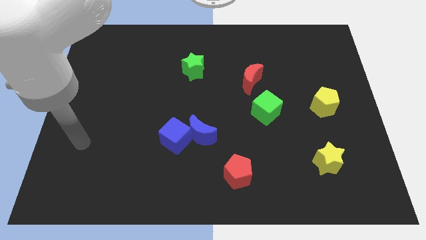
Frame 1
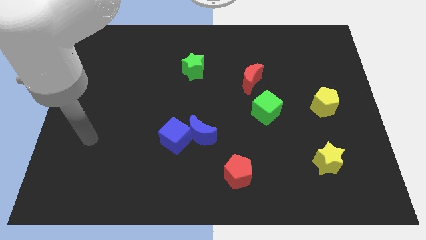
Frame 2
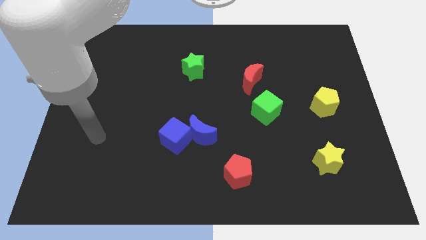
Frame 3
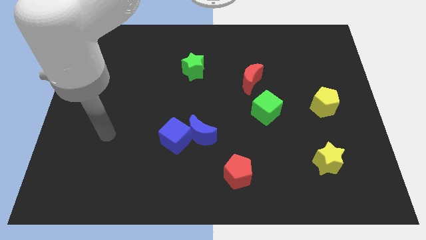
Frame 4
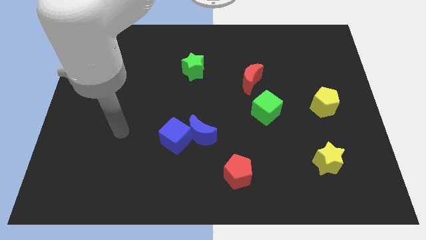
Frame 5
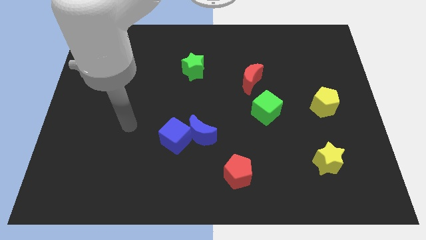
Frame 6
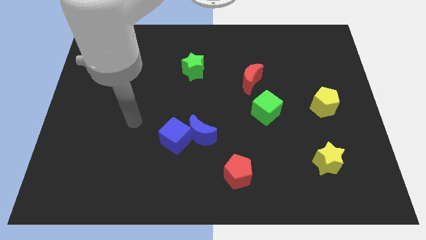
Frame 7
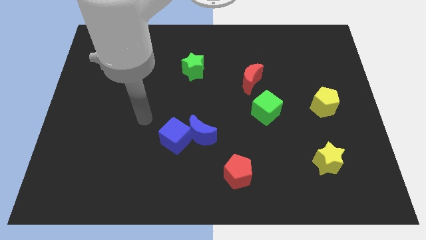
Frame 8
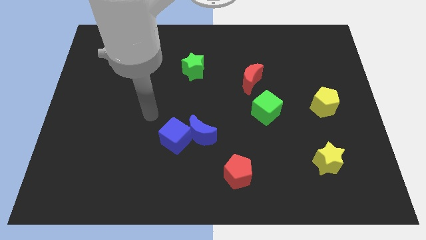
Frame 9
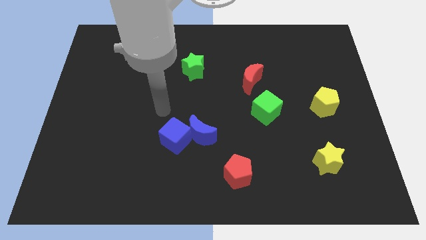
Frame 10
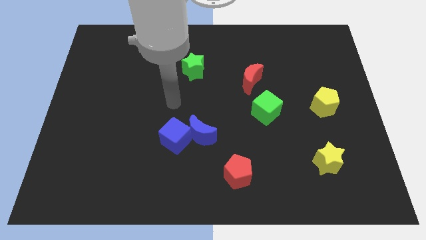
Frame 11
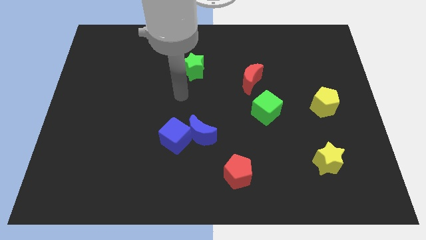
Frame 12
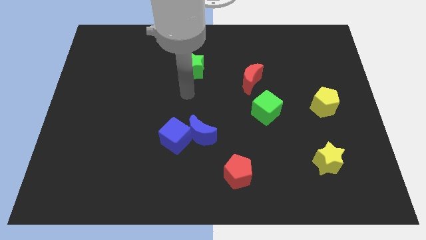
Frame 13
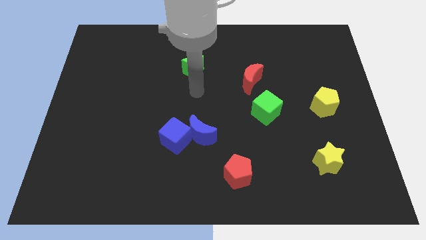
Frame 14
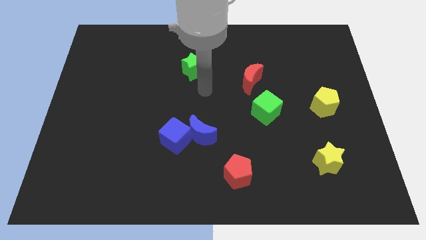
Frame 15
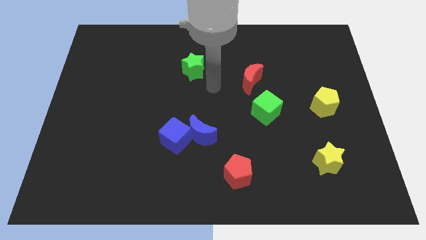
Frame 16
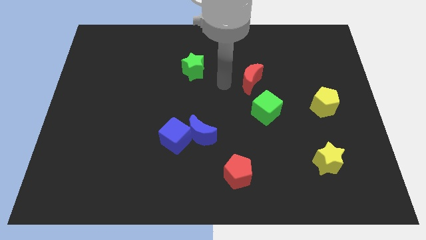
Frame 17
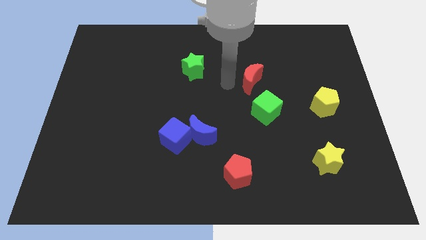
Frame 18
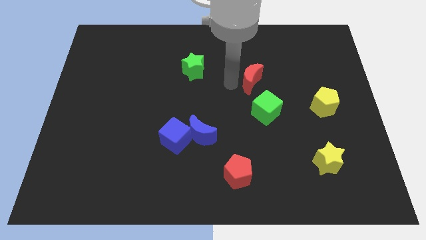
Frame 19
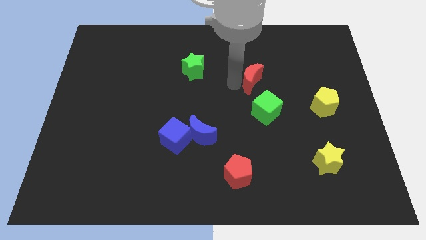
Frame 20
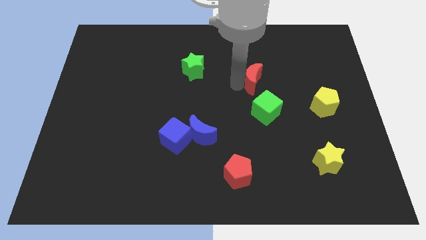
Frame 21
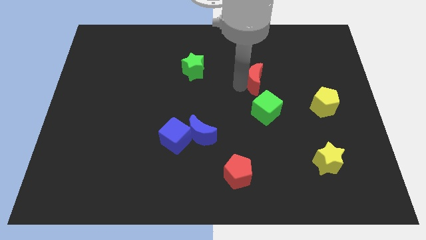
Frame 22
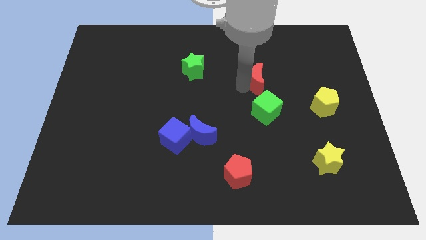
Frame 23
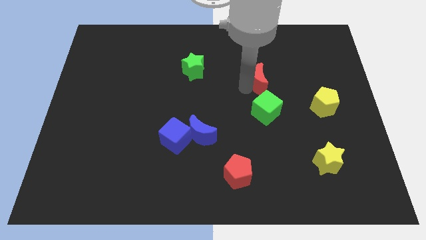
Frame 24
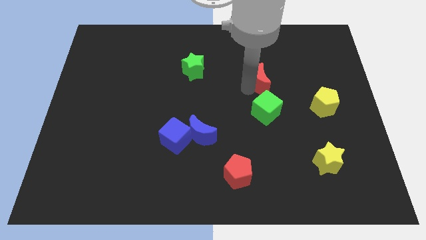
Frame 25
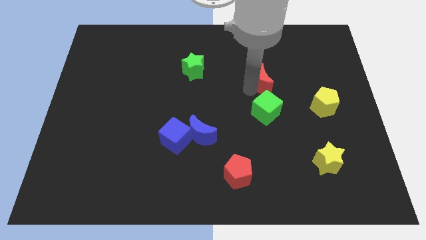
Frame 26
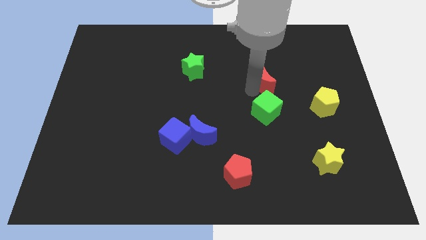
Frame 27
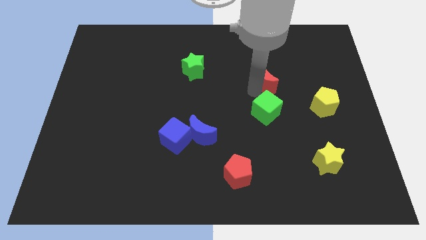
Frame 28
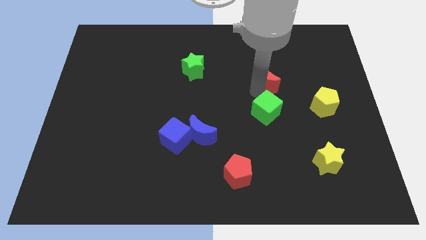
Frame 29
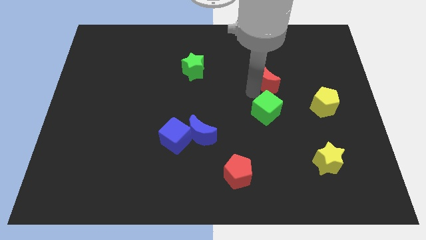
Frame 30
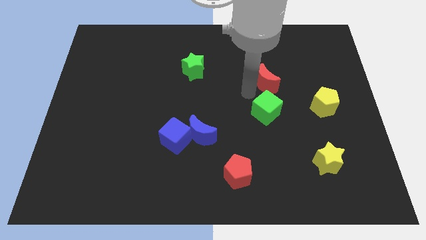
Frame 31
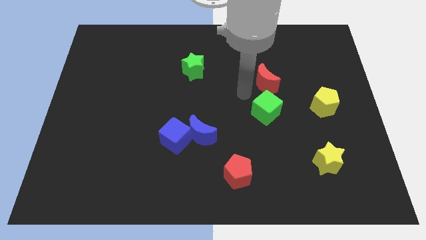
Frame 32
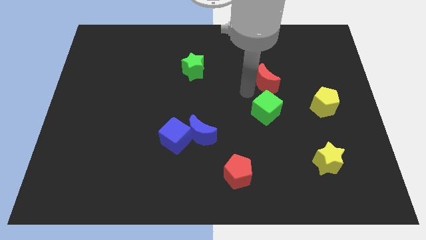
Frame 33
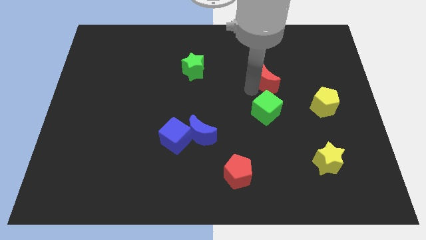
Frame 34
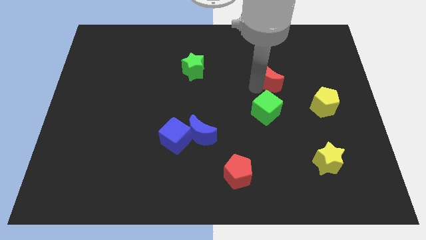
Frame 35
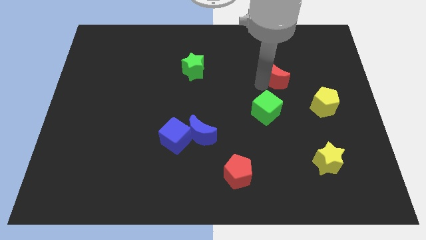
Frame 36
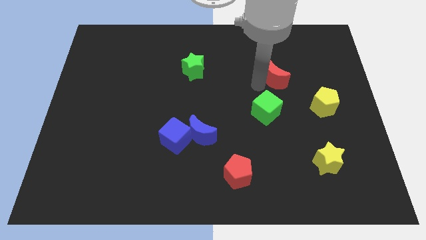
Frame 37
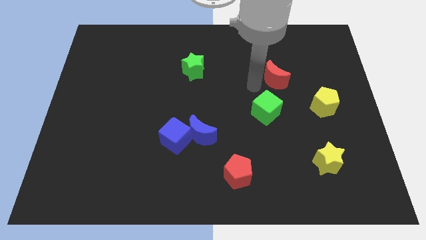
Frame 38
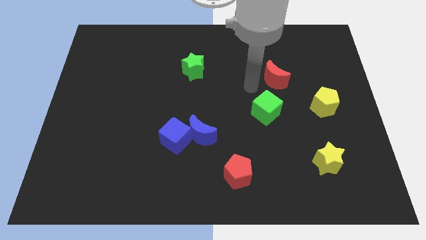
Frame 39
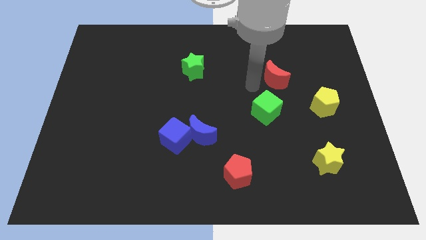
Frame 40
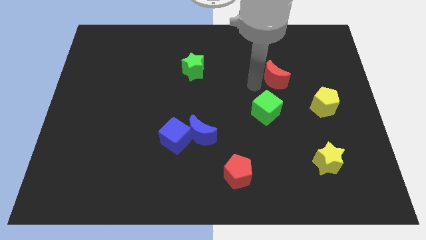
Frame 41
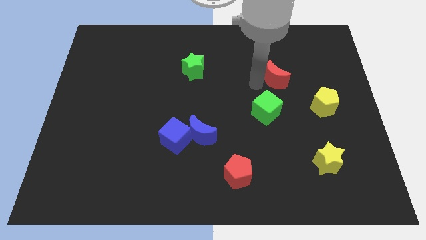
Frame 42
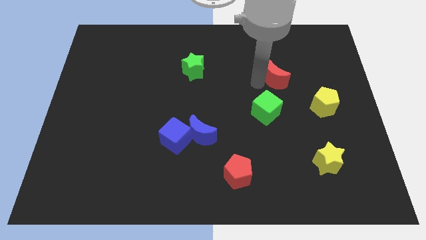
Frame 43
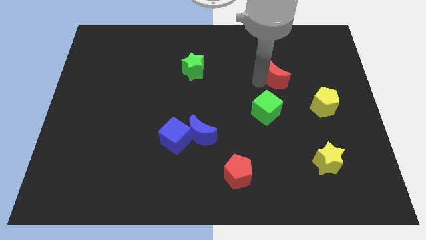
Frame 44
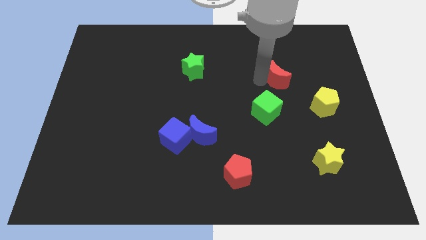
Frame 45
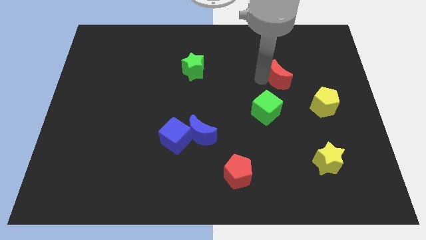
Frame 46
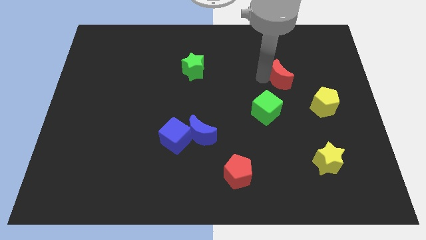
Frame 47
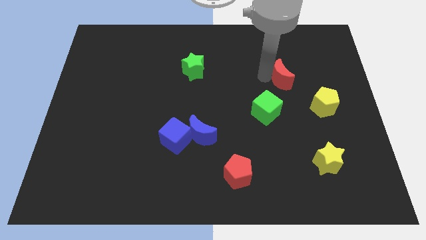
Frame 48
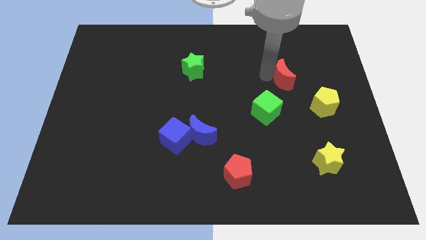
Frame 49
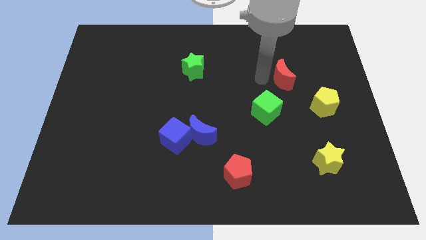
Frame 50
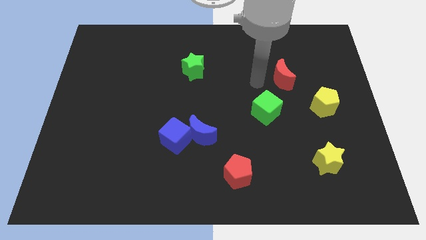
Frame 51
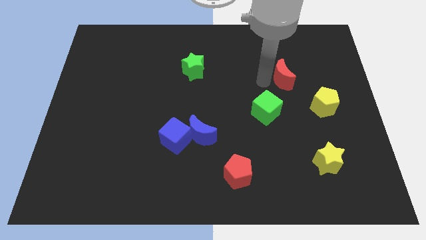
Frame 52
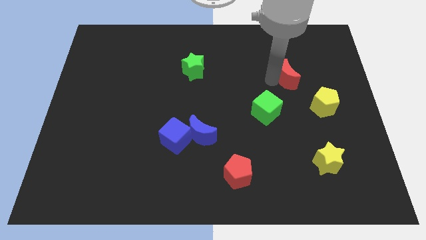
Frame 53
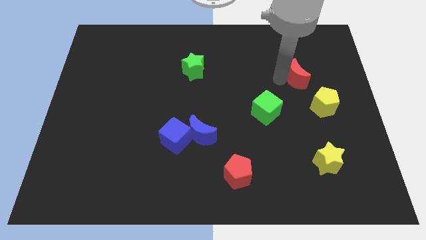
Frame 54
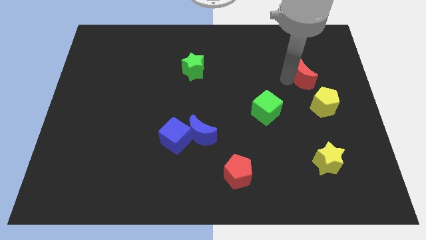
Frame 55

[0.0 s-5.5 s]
slide the red moon to the top side of the yellow pentagon

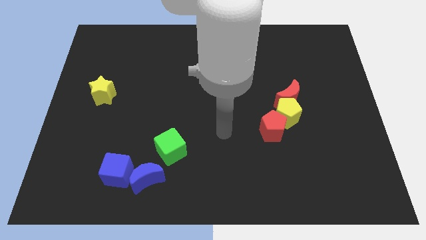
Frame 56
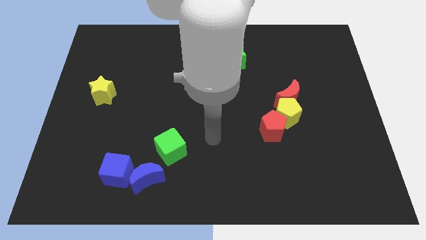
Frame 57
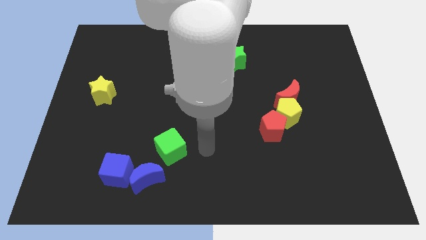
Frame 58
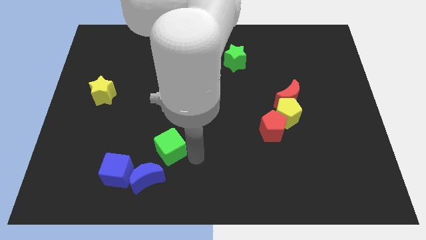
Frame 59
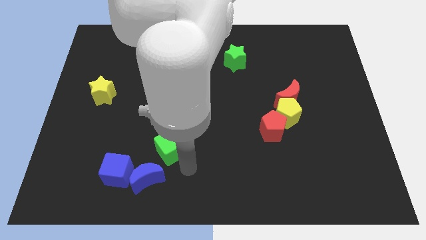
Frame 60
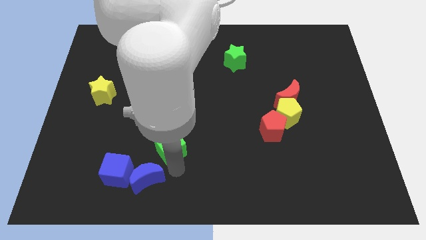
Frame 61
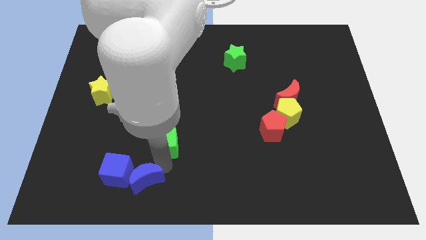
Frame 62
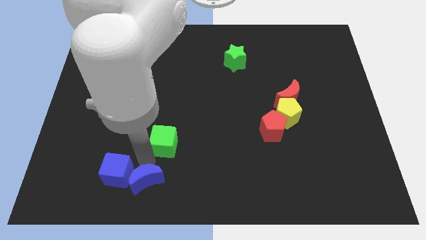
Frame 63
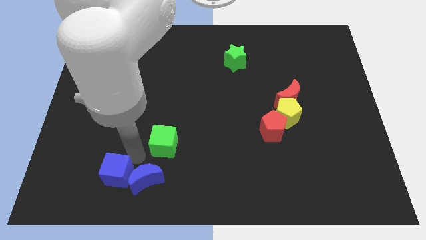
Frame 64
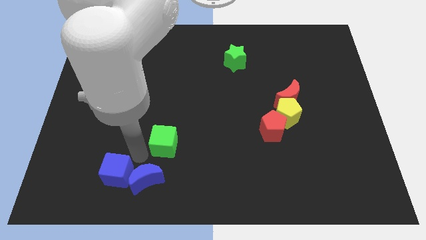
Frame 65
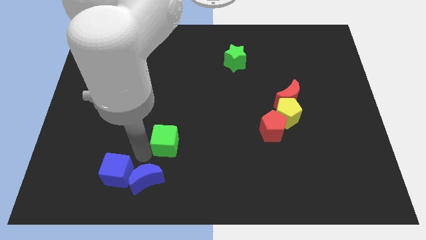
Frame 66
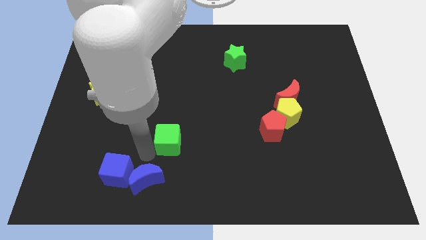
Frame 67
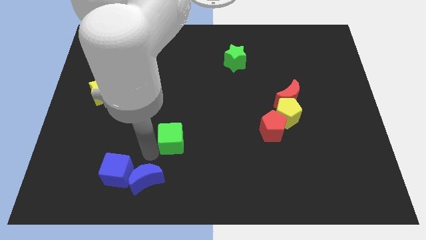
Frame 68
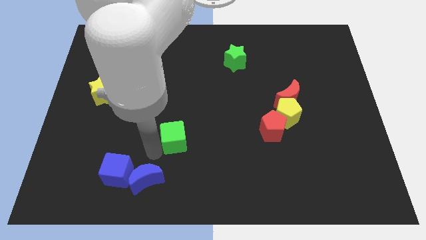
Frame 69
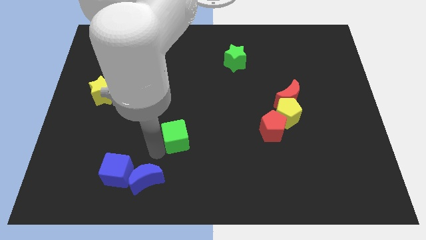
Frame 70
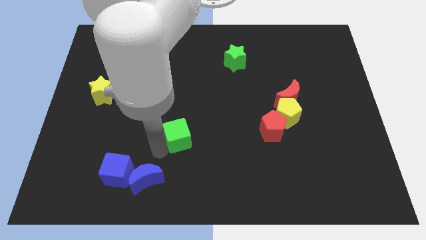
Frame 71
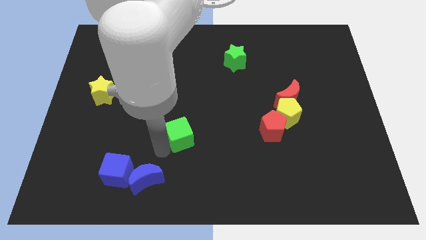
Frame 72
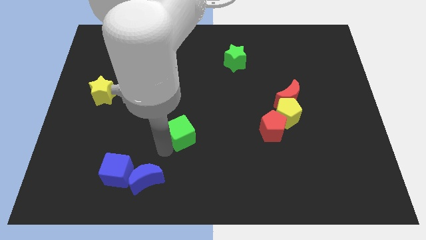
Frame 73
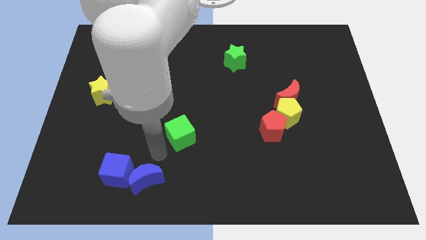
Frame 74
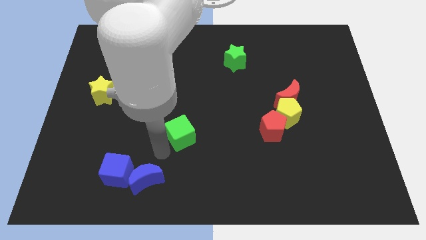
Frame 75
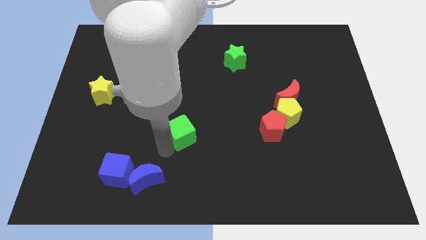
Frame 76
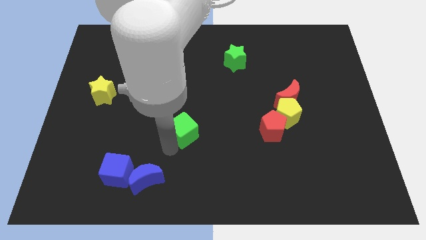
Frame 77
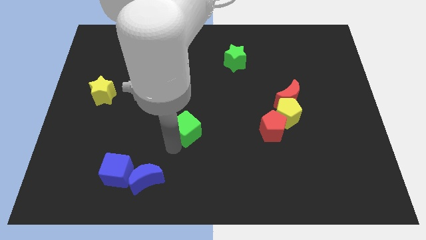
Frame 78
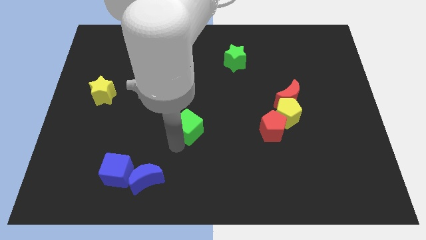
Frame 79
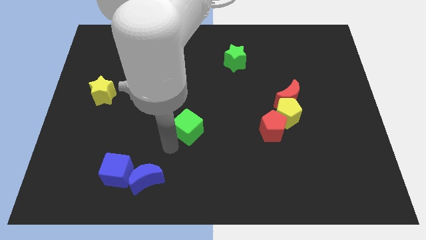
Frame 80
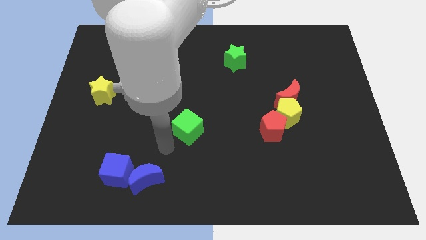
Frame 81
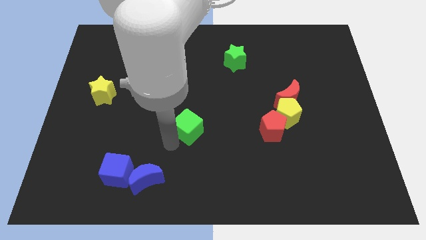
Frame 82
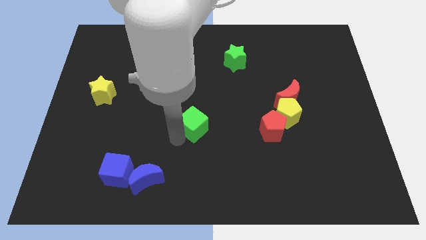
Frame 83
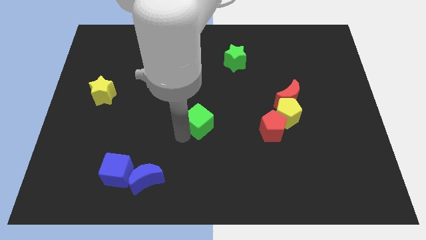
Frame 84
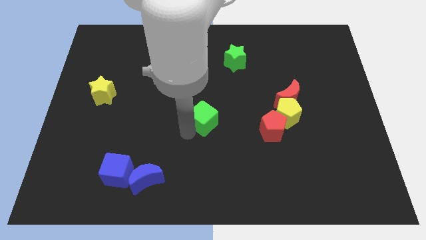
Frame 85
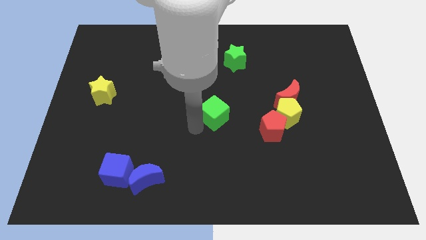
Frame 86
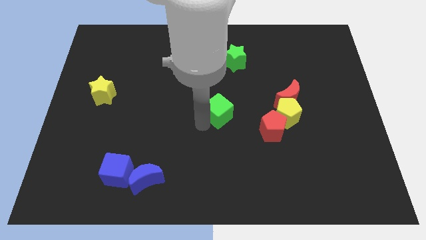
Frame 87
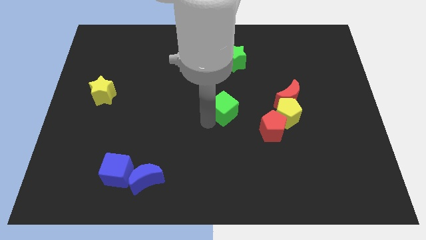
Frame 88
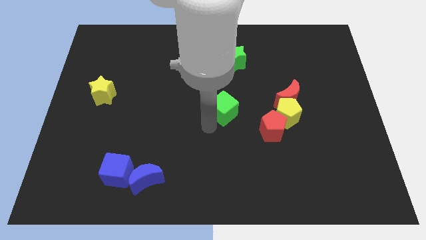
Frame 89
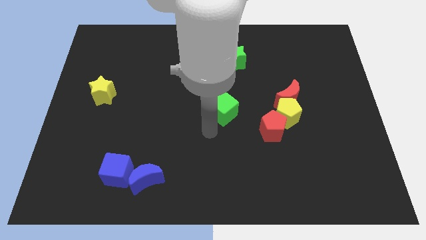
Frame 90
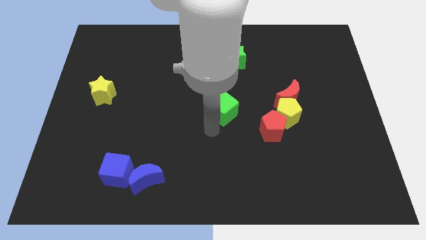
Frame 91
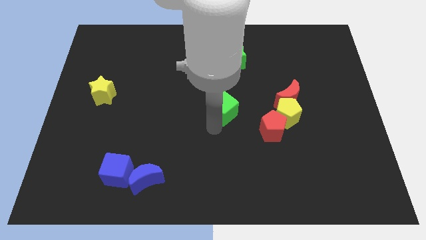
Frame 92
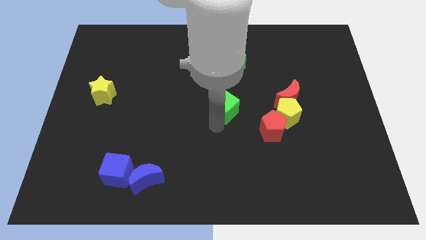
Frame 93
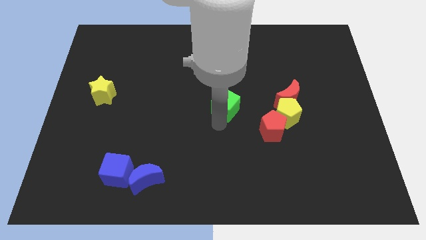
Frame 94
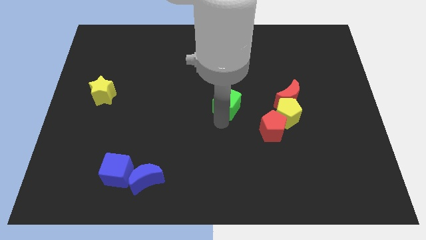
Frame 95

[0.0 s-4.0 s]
put the green cube to the bottom of the green star
